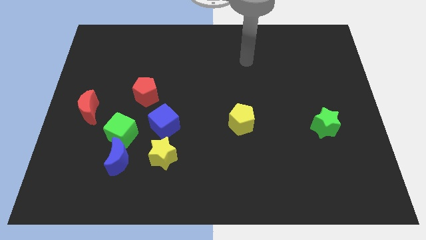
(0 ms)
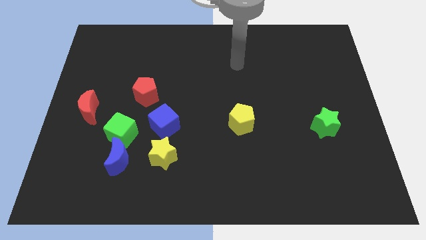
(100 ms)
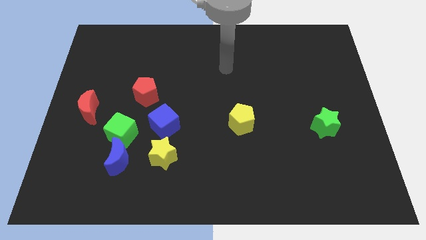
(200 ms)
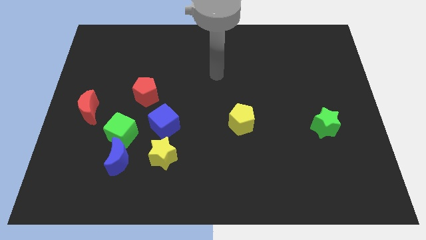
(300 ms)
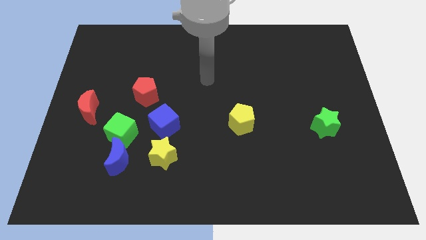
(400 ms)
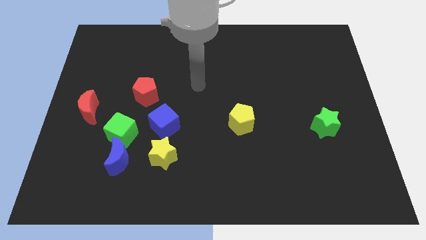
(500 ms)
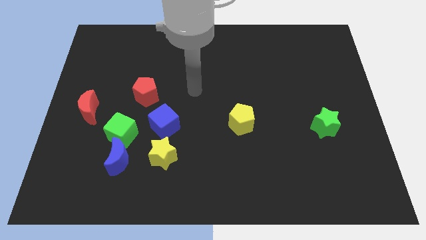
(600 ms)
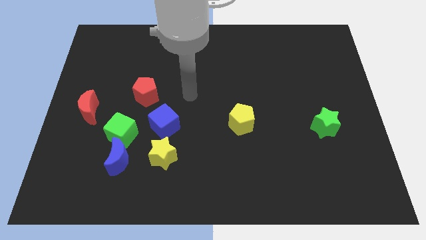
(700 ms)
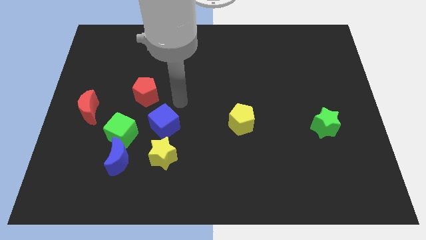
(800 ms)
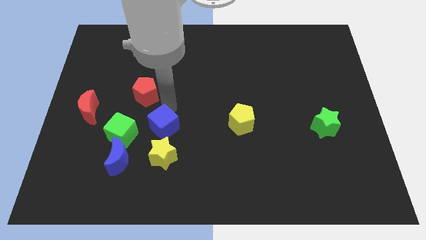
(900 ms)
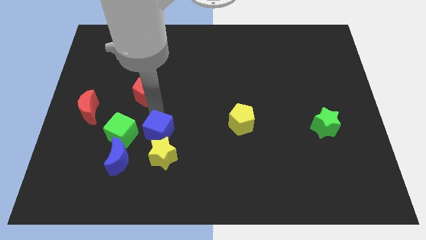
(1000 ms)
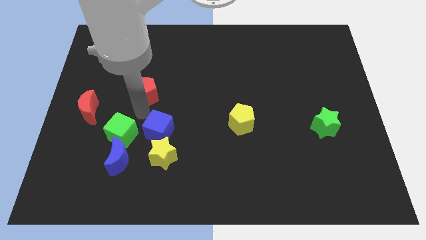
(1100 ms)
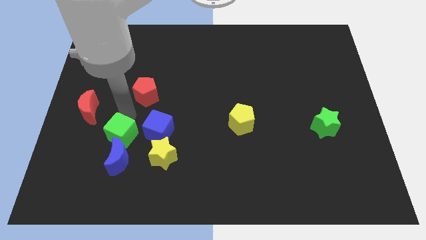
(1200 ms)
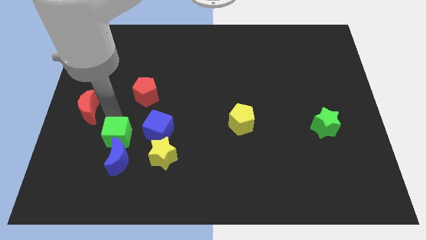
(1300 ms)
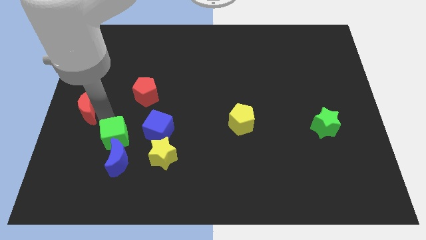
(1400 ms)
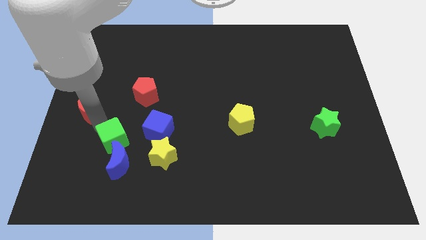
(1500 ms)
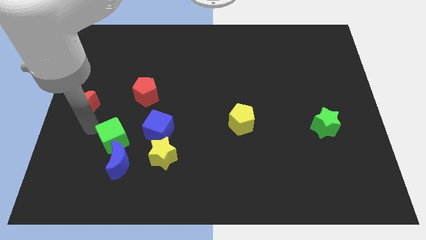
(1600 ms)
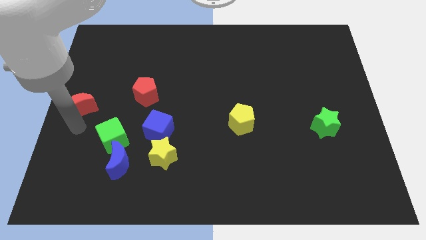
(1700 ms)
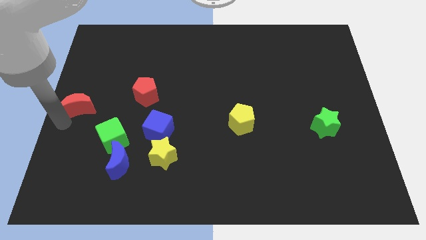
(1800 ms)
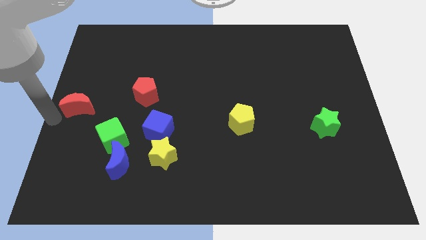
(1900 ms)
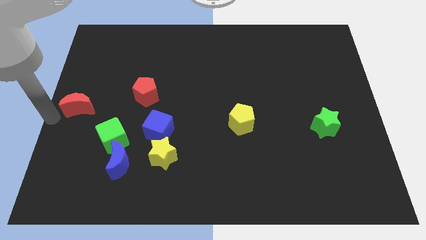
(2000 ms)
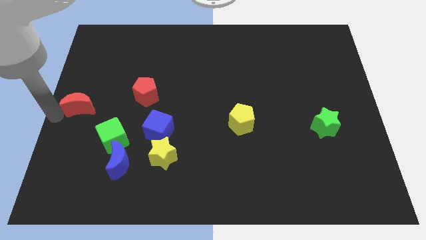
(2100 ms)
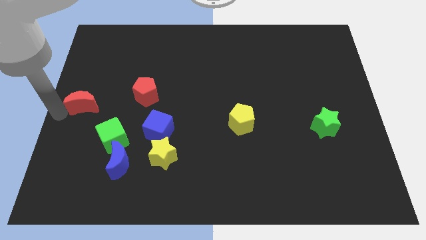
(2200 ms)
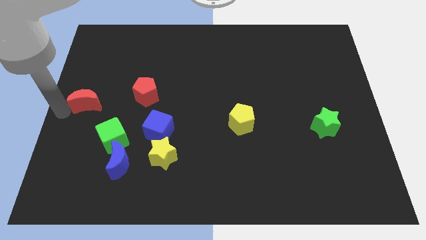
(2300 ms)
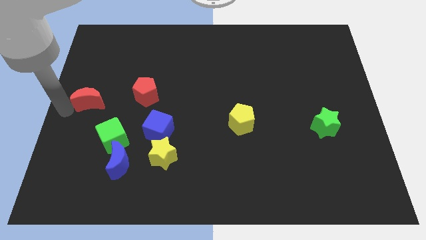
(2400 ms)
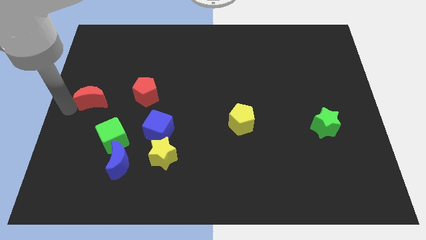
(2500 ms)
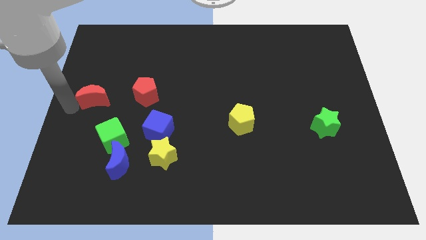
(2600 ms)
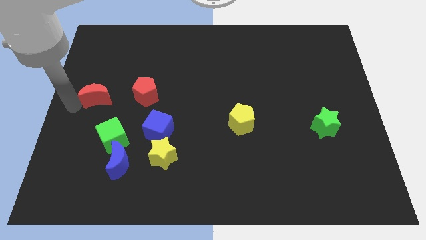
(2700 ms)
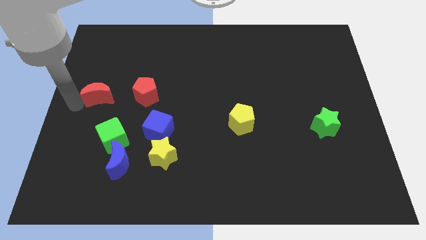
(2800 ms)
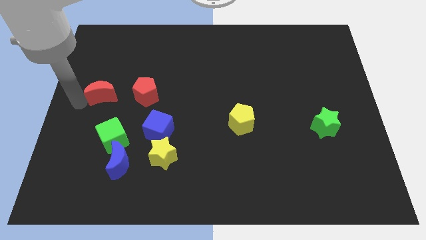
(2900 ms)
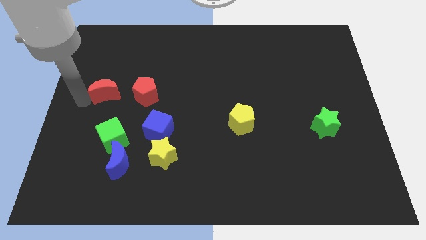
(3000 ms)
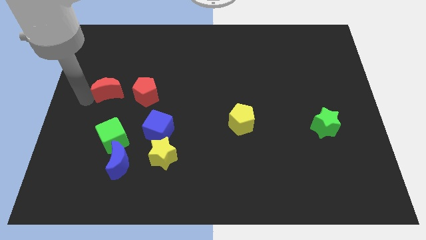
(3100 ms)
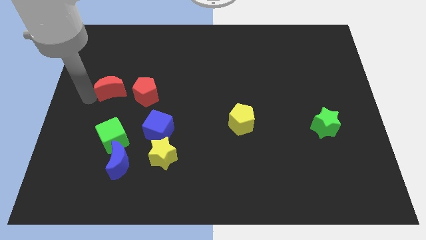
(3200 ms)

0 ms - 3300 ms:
push the red moon diagonally up and right slightly

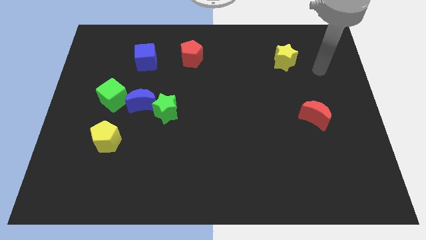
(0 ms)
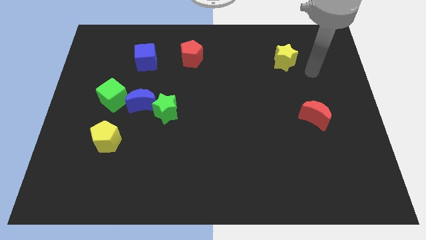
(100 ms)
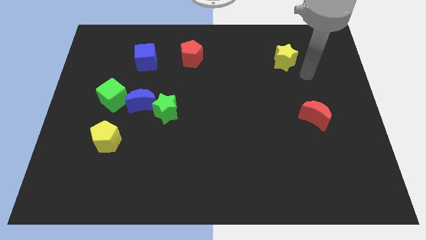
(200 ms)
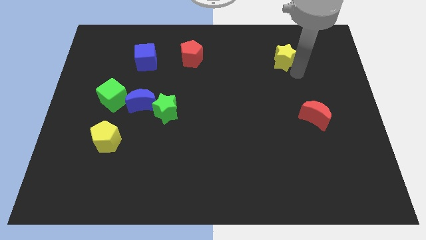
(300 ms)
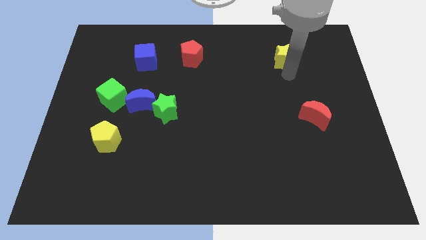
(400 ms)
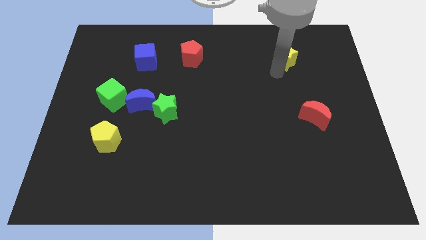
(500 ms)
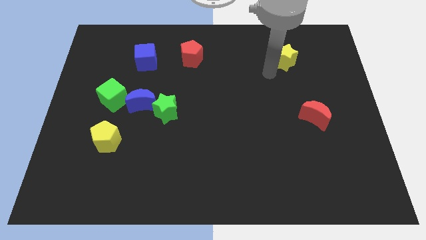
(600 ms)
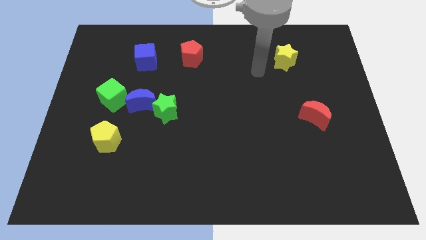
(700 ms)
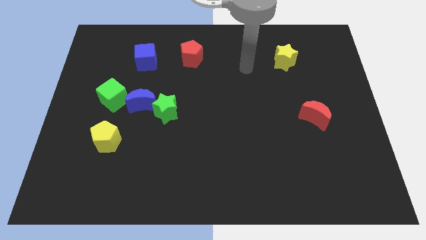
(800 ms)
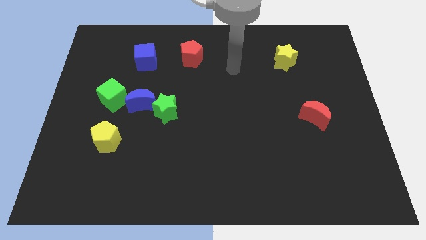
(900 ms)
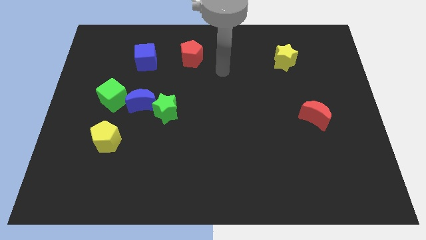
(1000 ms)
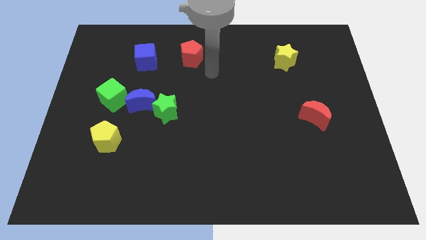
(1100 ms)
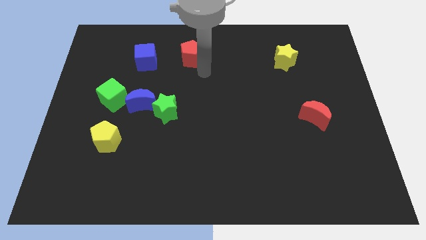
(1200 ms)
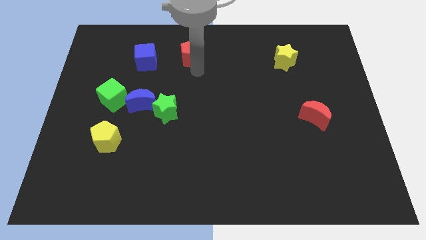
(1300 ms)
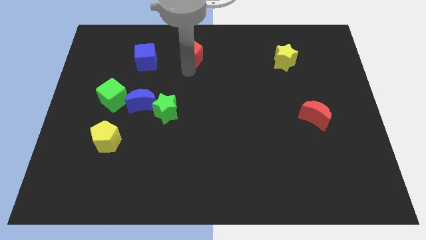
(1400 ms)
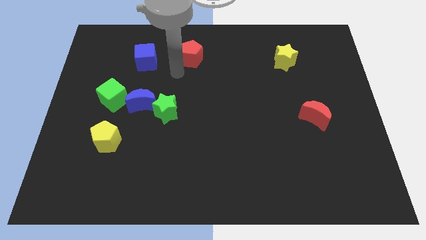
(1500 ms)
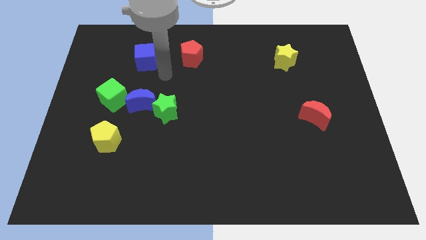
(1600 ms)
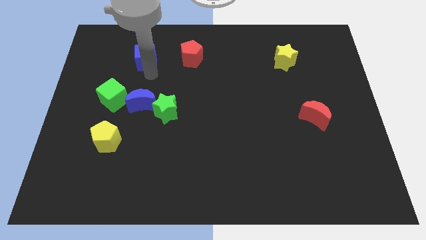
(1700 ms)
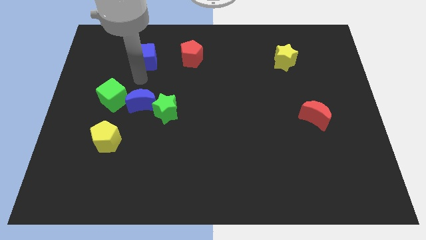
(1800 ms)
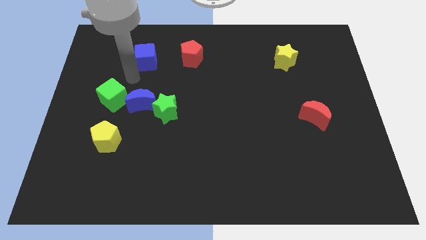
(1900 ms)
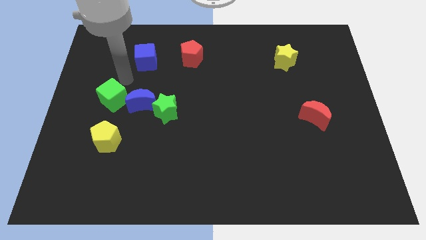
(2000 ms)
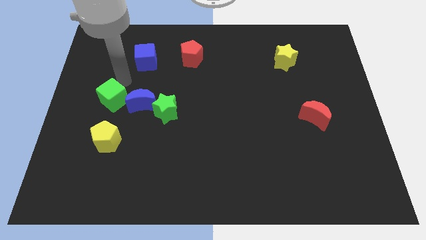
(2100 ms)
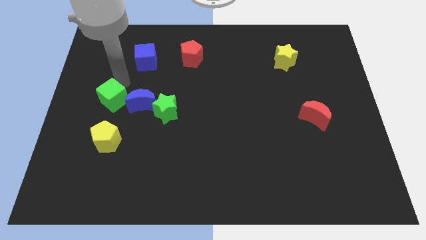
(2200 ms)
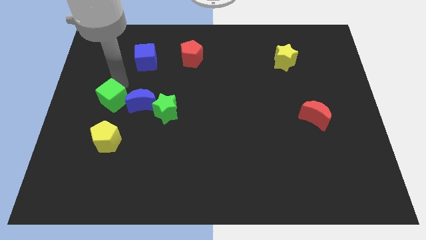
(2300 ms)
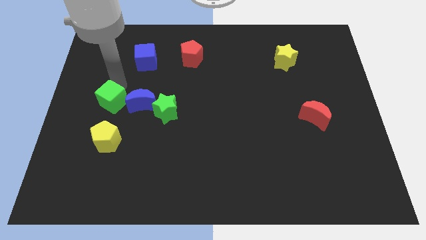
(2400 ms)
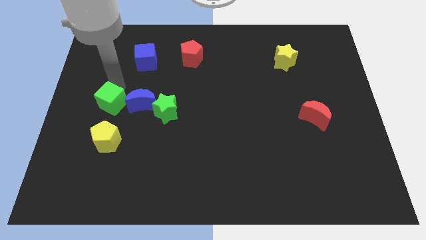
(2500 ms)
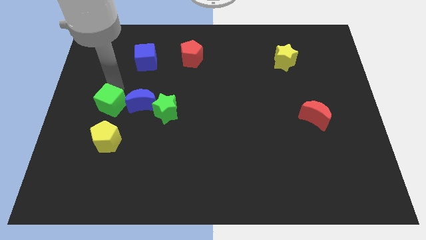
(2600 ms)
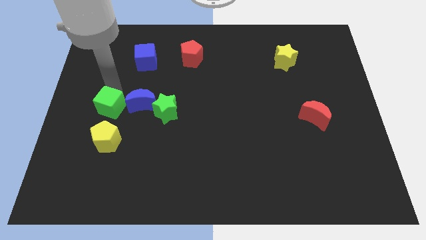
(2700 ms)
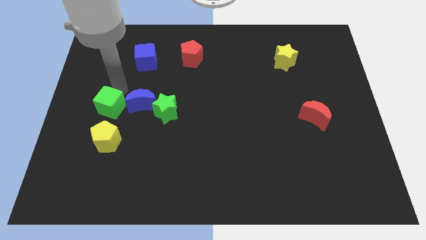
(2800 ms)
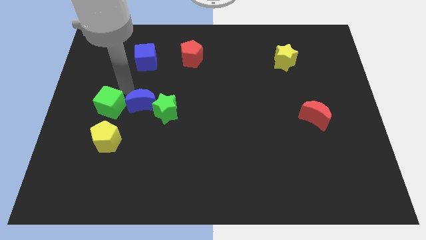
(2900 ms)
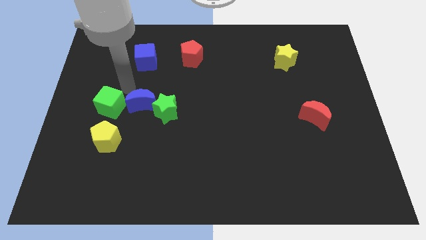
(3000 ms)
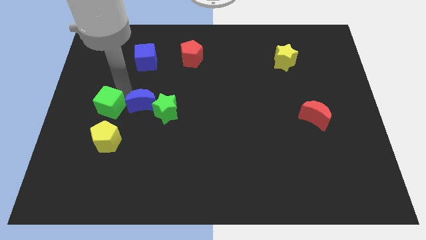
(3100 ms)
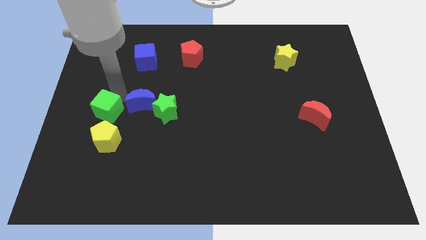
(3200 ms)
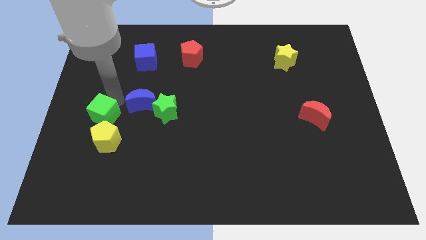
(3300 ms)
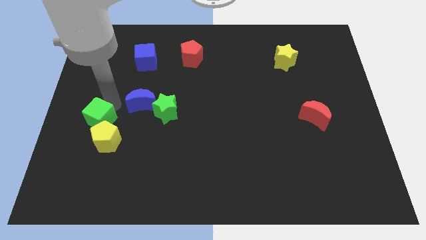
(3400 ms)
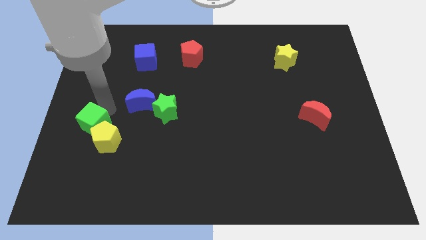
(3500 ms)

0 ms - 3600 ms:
push the green cube somewhat downwards

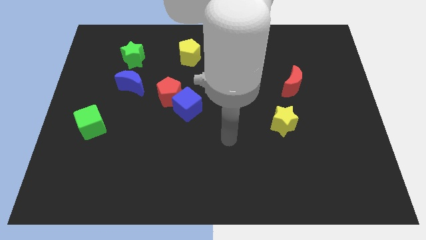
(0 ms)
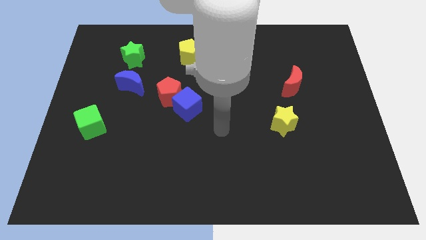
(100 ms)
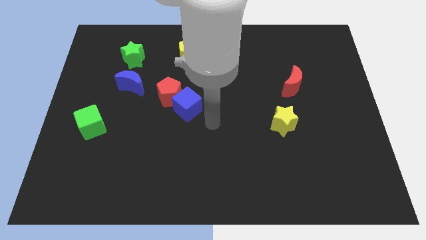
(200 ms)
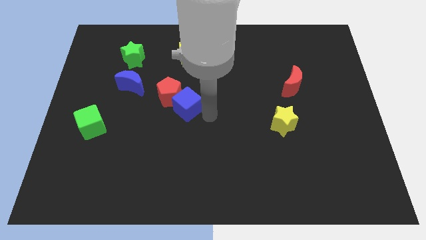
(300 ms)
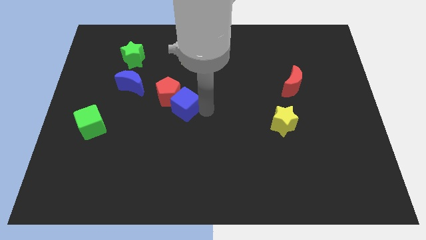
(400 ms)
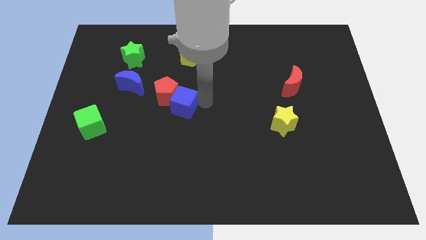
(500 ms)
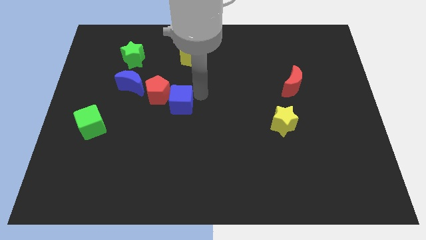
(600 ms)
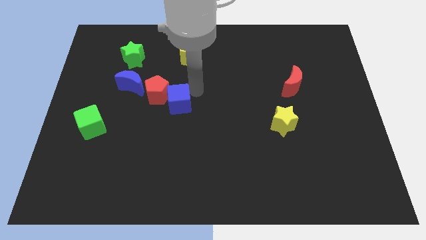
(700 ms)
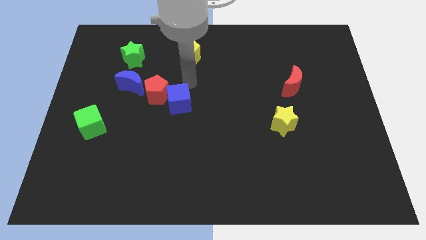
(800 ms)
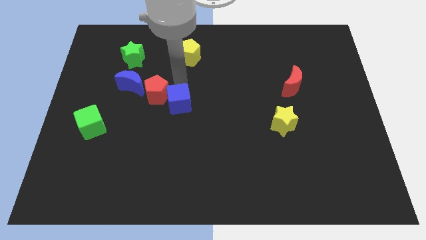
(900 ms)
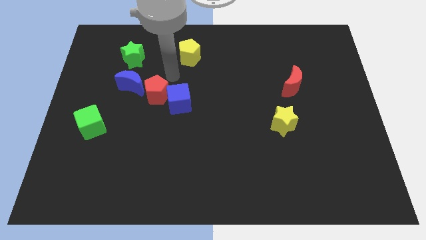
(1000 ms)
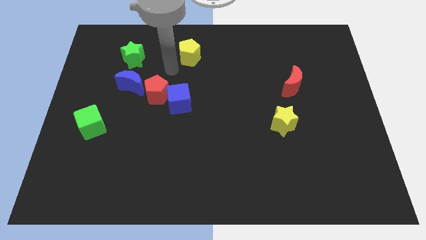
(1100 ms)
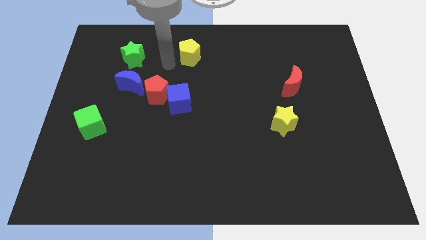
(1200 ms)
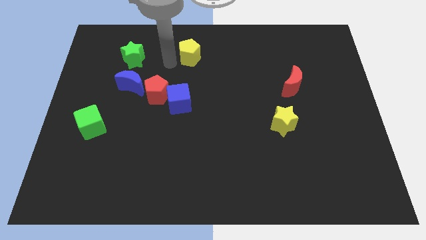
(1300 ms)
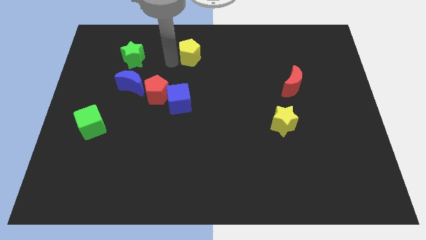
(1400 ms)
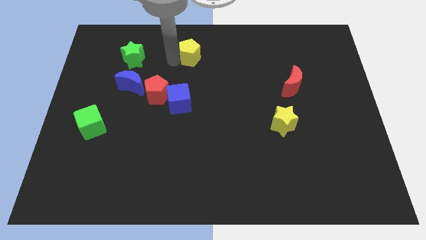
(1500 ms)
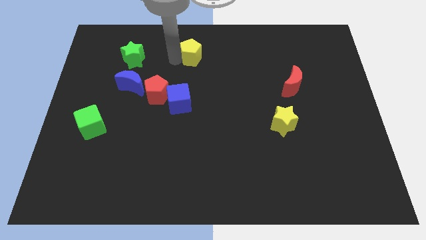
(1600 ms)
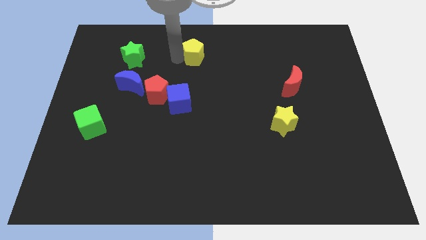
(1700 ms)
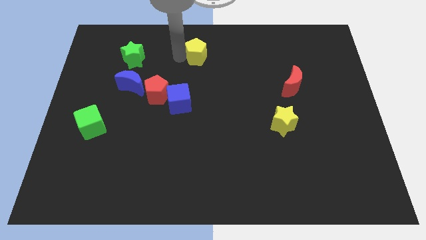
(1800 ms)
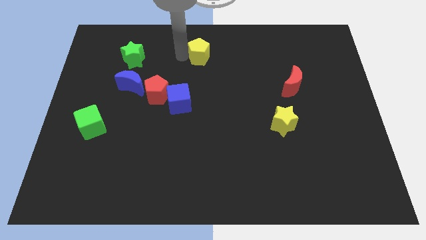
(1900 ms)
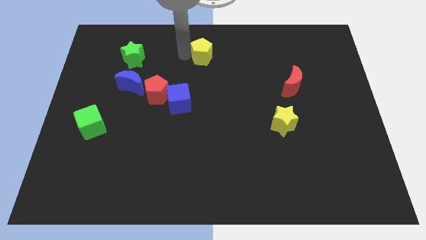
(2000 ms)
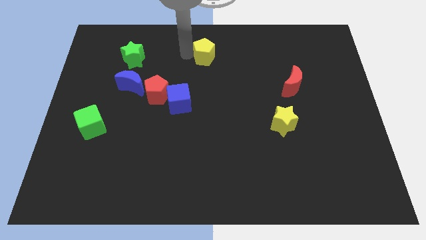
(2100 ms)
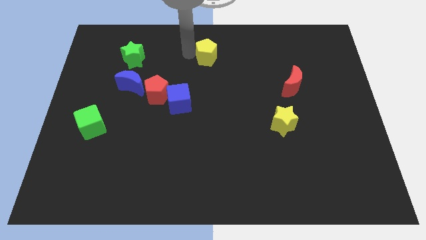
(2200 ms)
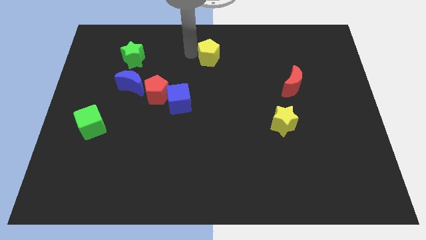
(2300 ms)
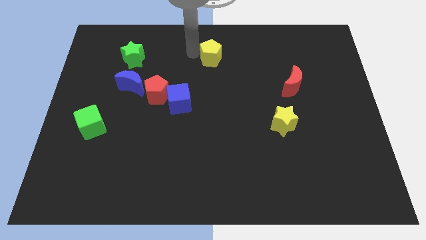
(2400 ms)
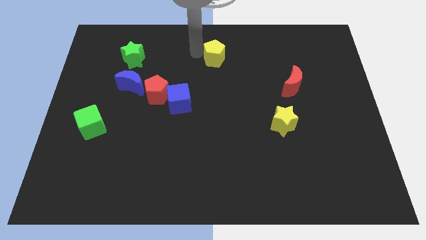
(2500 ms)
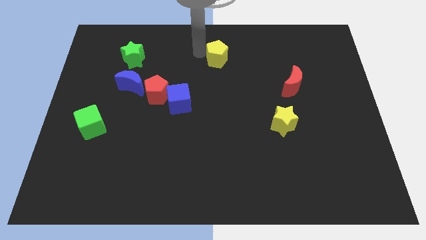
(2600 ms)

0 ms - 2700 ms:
move the yellow pentagon to the right somewhat
